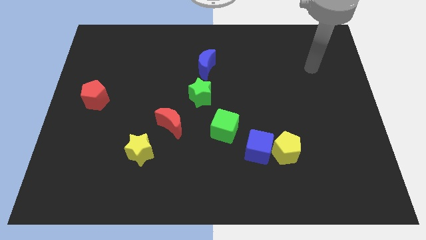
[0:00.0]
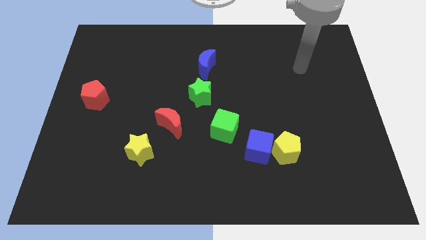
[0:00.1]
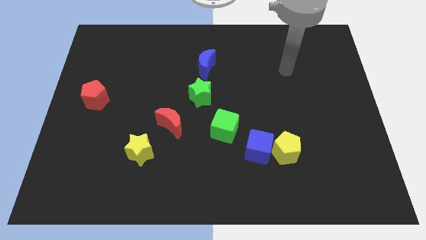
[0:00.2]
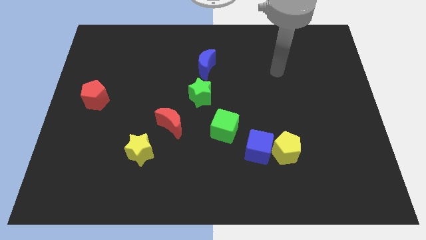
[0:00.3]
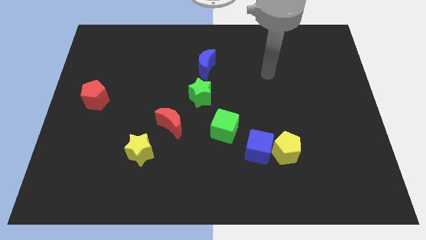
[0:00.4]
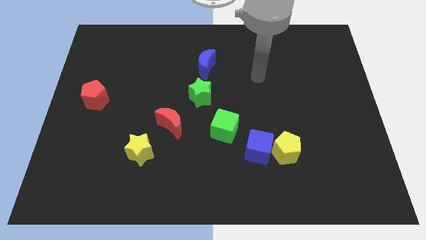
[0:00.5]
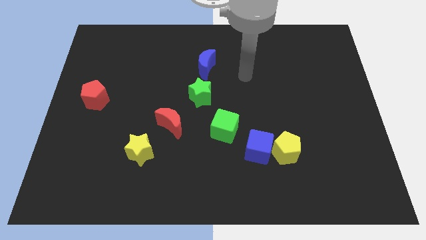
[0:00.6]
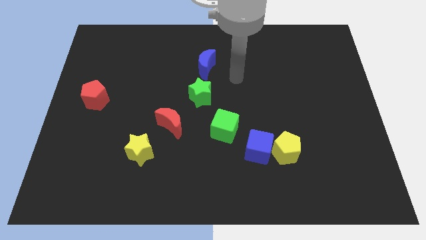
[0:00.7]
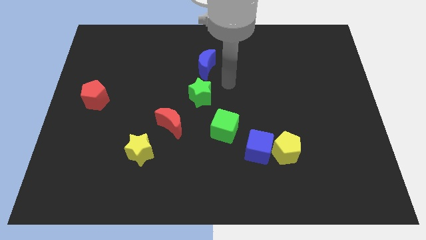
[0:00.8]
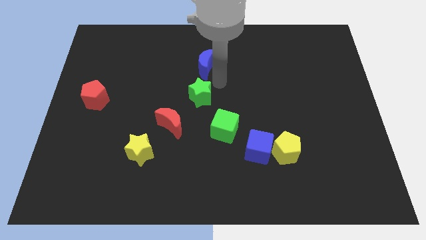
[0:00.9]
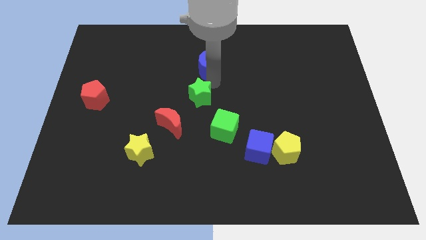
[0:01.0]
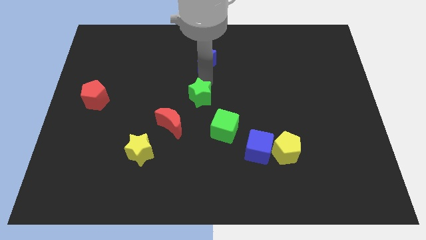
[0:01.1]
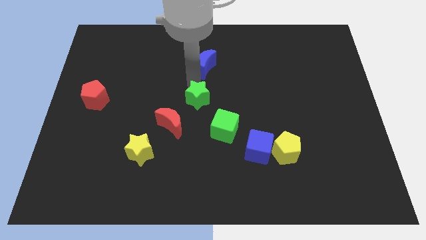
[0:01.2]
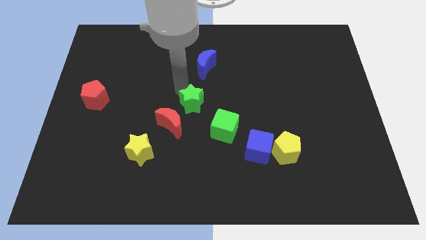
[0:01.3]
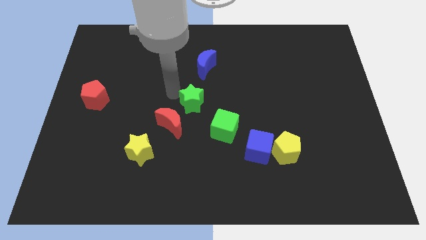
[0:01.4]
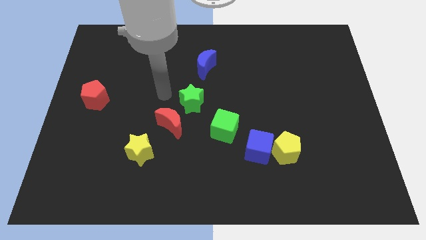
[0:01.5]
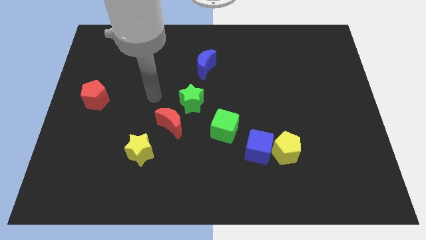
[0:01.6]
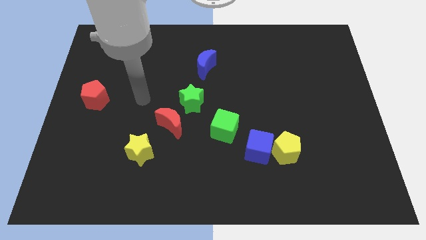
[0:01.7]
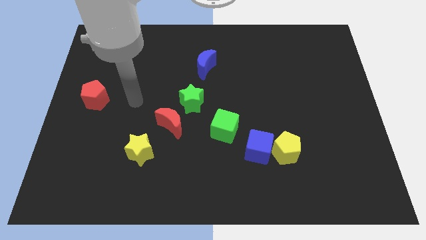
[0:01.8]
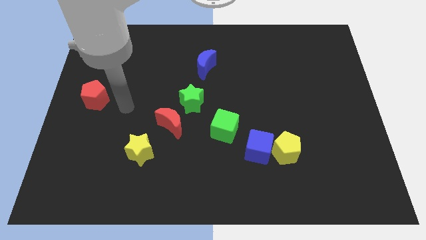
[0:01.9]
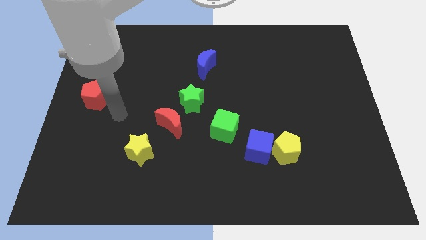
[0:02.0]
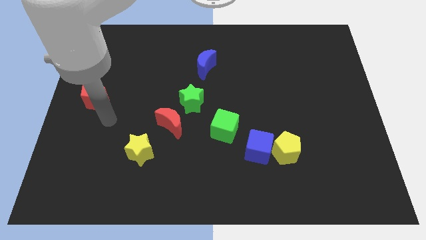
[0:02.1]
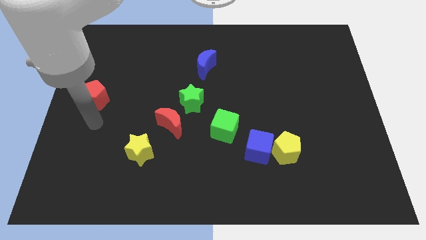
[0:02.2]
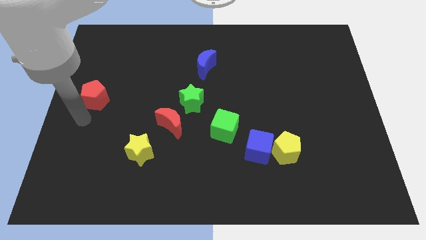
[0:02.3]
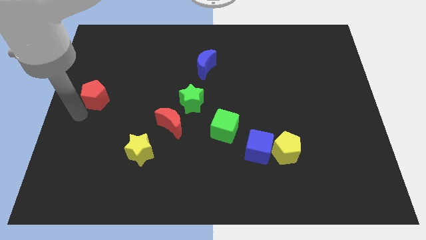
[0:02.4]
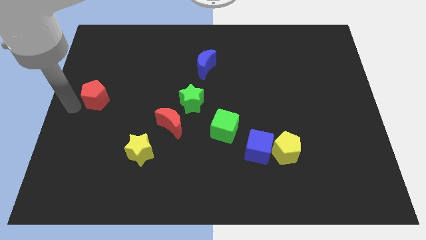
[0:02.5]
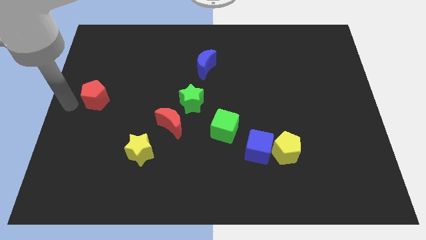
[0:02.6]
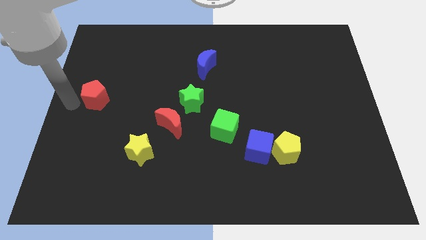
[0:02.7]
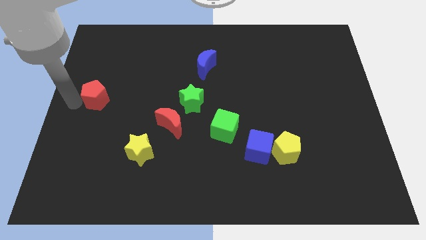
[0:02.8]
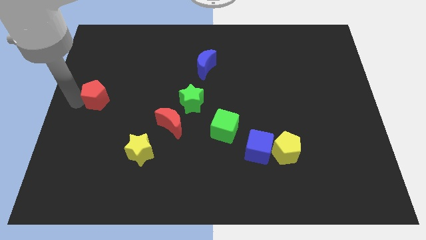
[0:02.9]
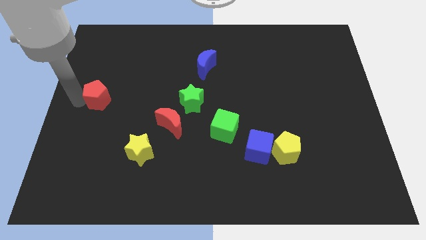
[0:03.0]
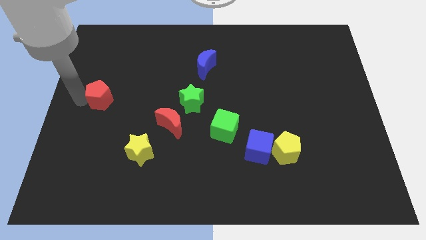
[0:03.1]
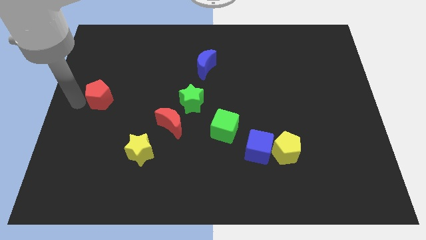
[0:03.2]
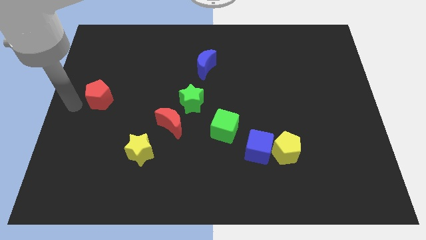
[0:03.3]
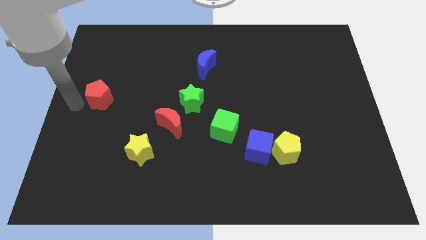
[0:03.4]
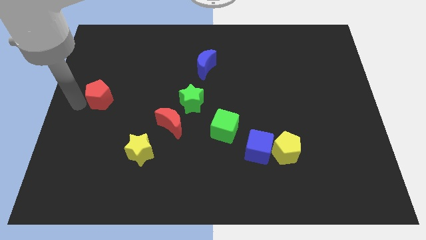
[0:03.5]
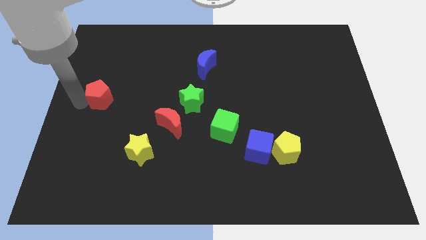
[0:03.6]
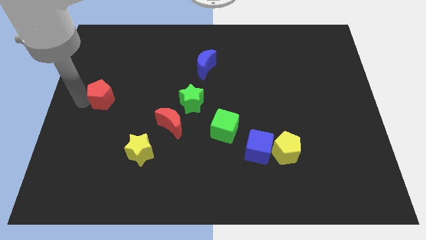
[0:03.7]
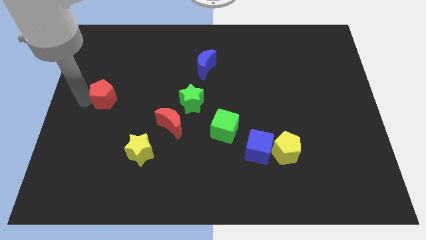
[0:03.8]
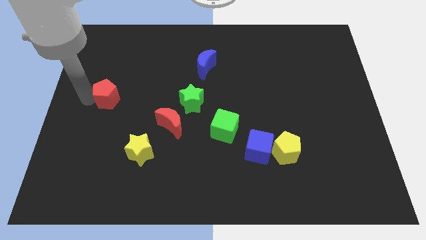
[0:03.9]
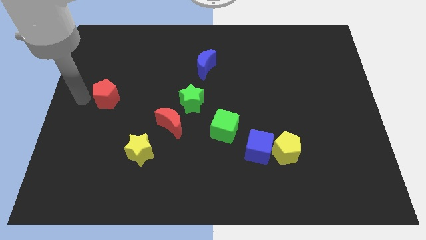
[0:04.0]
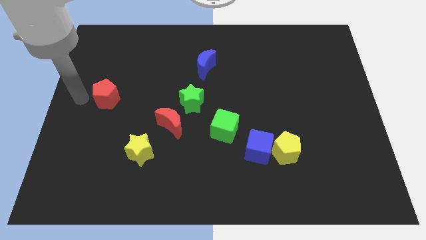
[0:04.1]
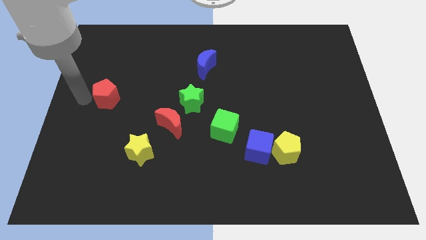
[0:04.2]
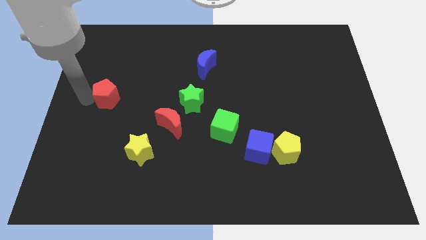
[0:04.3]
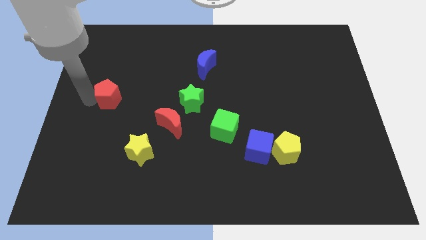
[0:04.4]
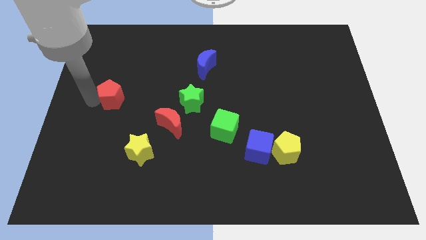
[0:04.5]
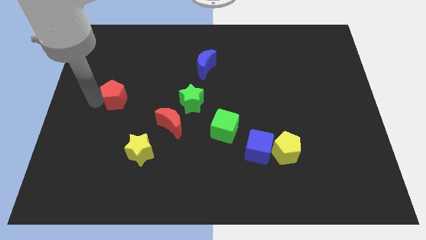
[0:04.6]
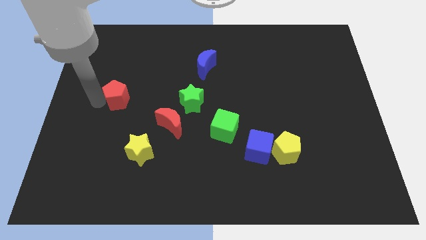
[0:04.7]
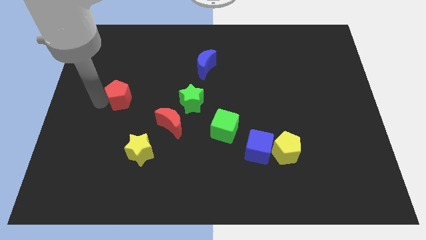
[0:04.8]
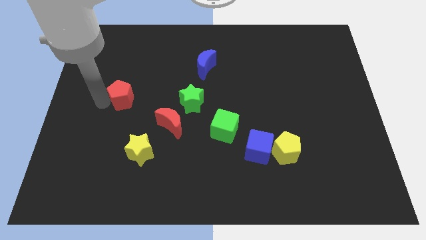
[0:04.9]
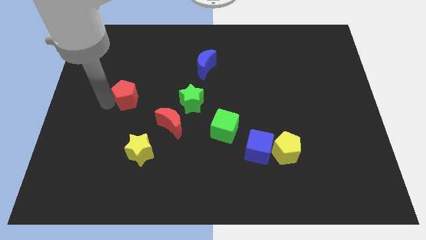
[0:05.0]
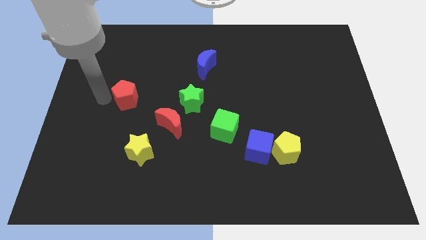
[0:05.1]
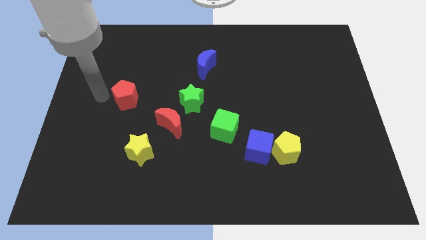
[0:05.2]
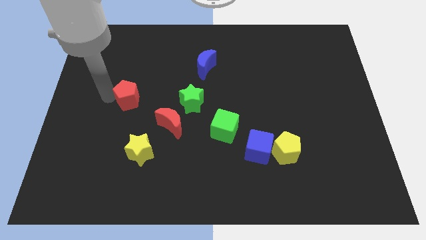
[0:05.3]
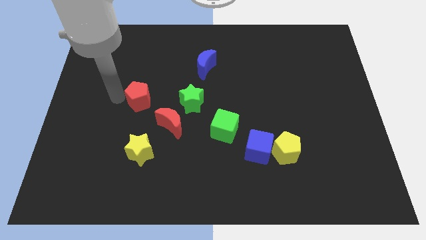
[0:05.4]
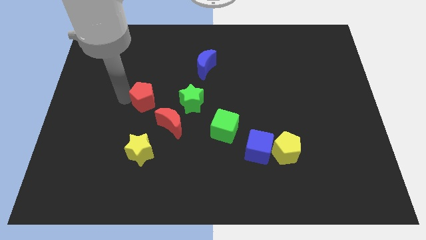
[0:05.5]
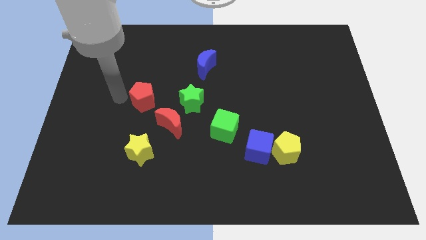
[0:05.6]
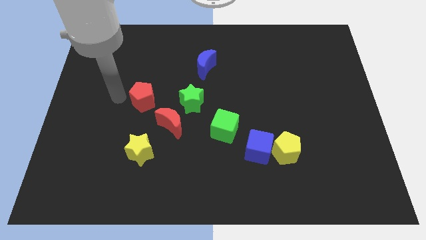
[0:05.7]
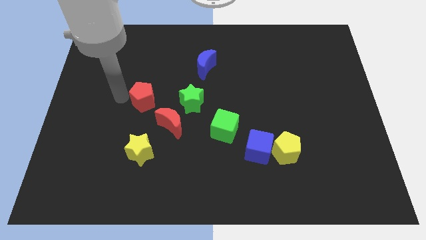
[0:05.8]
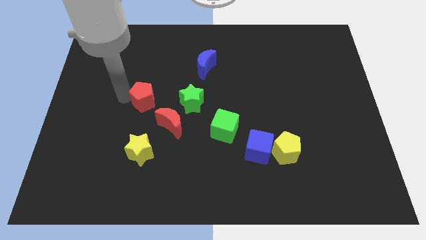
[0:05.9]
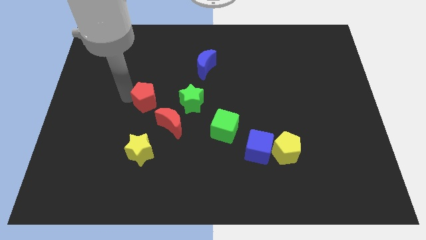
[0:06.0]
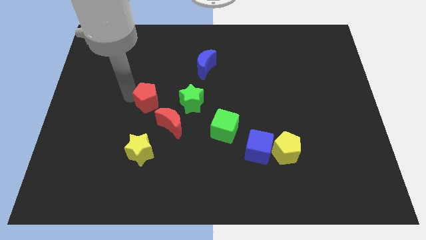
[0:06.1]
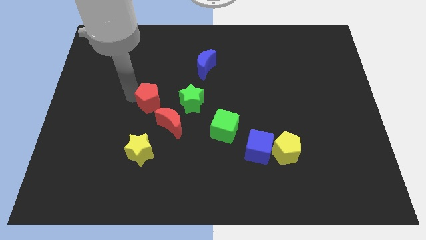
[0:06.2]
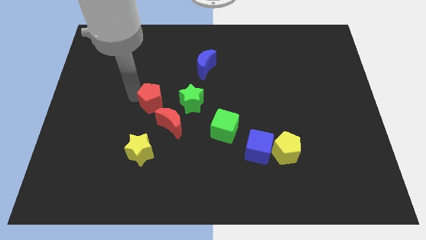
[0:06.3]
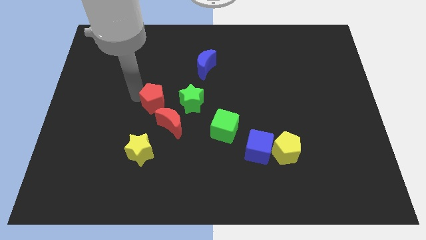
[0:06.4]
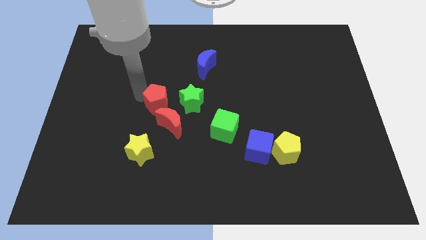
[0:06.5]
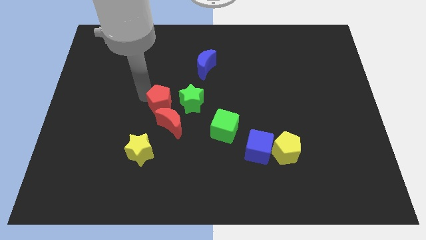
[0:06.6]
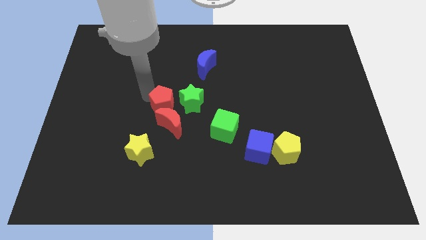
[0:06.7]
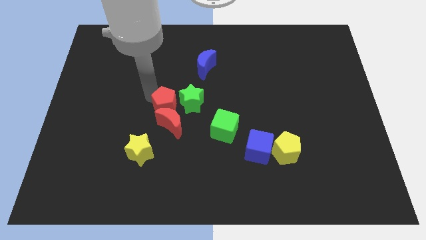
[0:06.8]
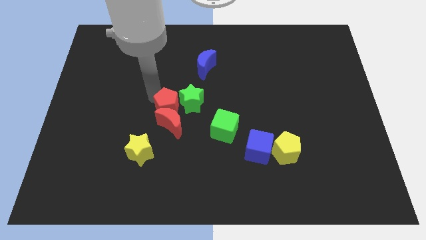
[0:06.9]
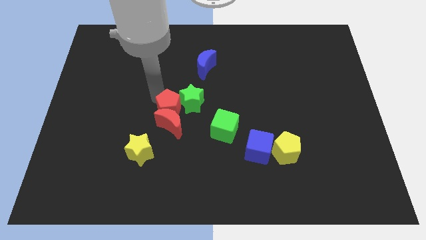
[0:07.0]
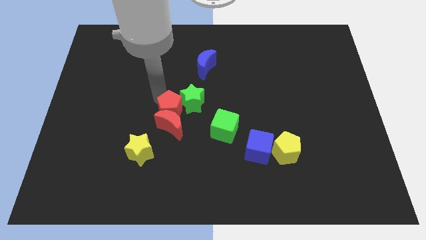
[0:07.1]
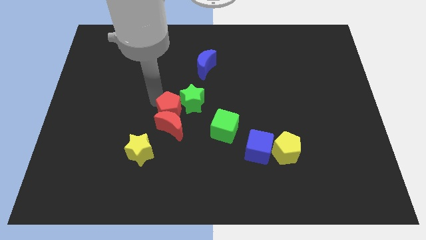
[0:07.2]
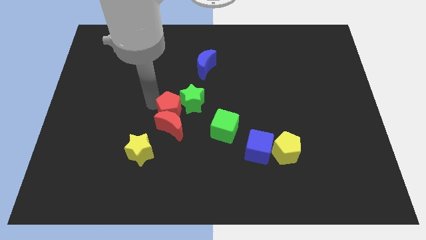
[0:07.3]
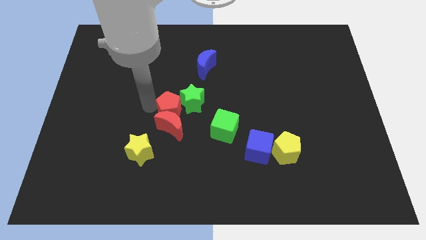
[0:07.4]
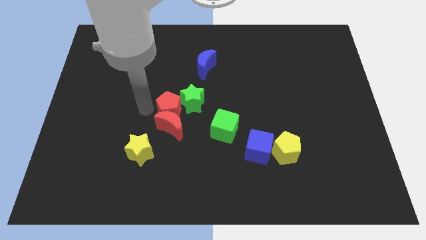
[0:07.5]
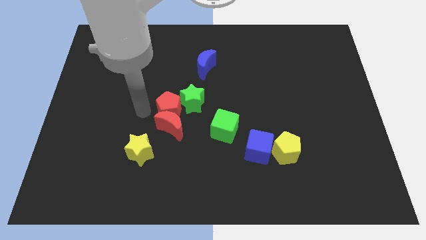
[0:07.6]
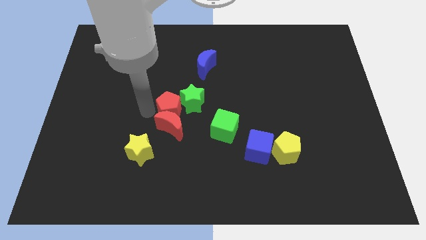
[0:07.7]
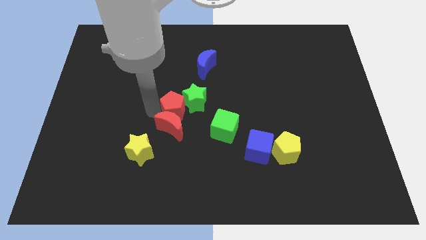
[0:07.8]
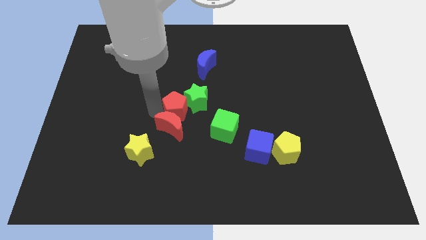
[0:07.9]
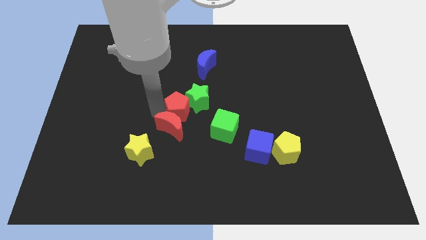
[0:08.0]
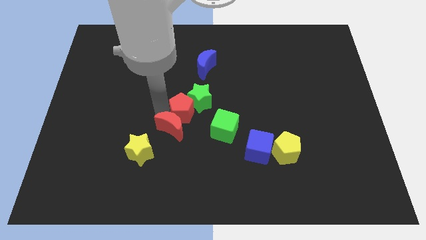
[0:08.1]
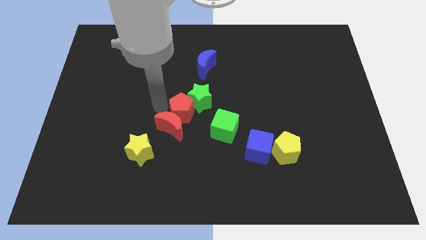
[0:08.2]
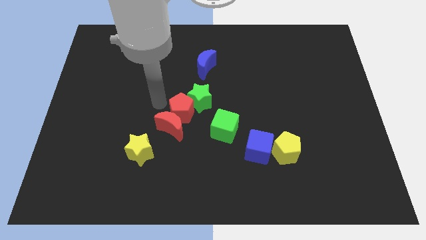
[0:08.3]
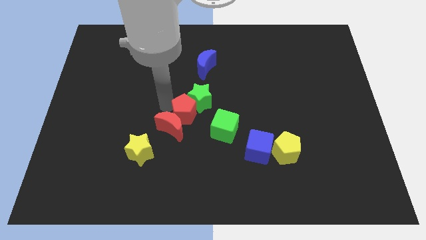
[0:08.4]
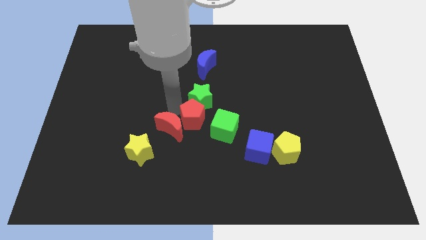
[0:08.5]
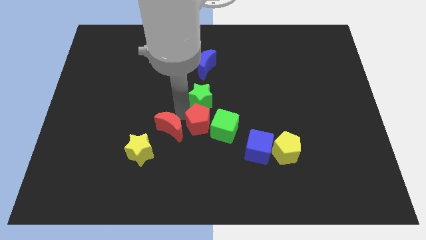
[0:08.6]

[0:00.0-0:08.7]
push the red pentagon close to the green cube
